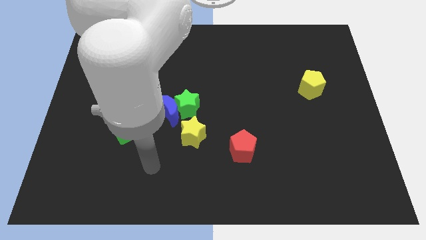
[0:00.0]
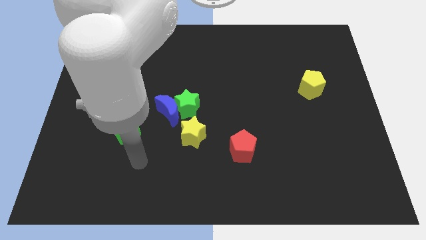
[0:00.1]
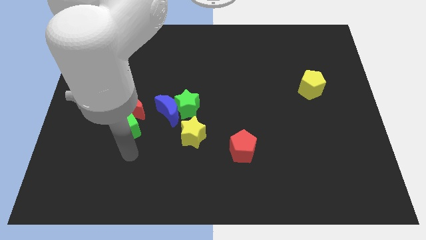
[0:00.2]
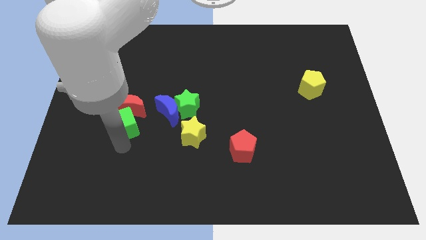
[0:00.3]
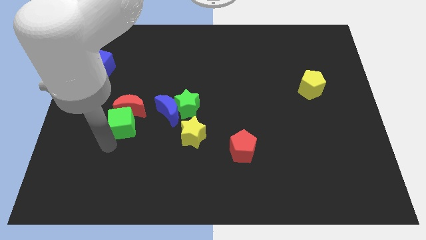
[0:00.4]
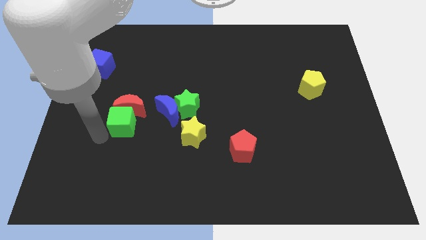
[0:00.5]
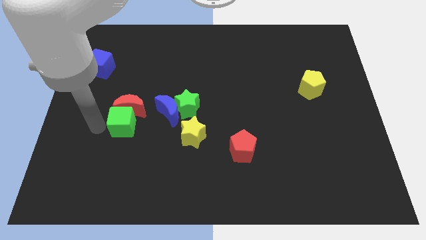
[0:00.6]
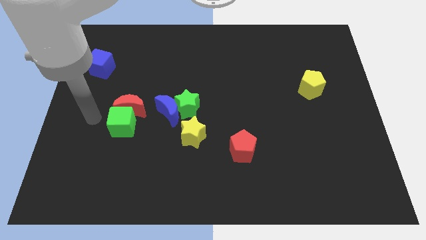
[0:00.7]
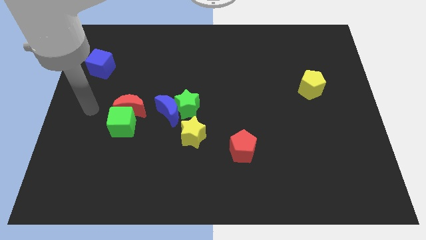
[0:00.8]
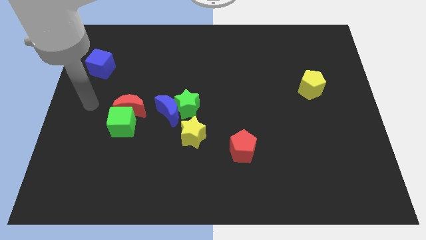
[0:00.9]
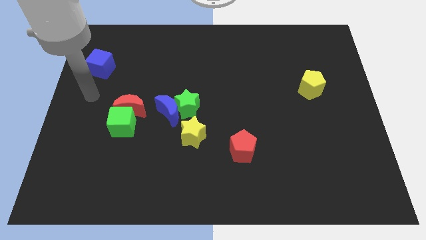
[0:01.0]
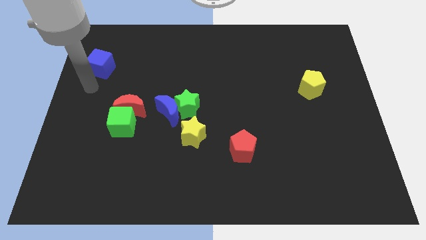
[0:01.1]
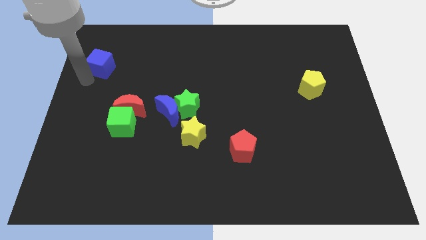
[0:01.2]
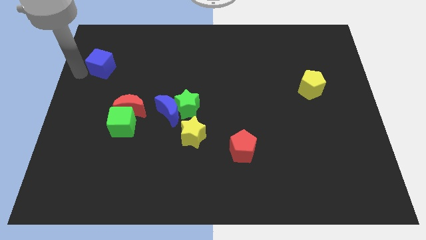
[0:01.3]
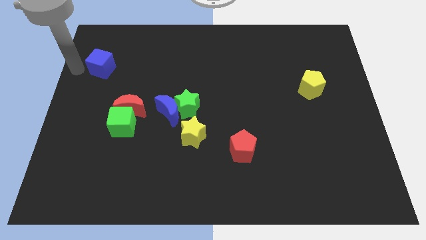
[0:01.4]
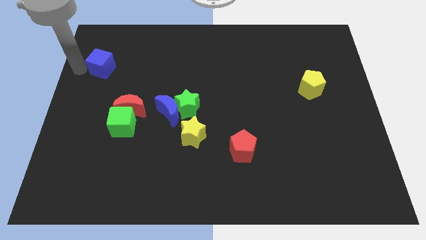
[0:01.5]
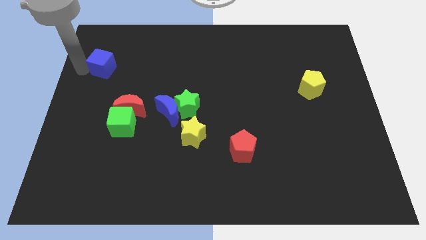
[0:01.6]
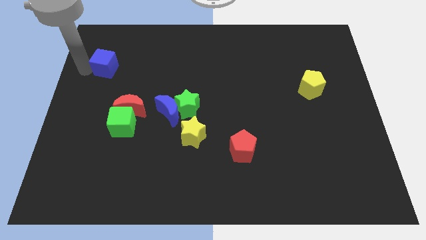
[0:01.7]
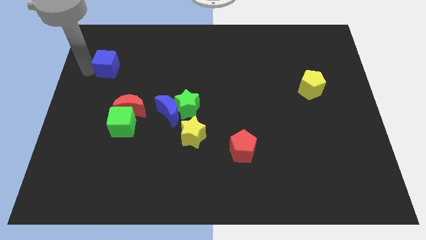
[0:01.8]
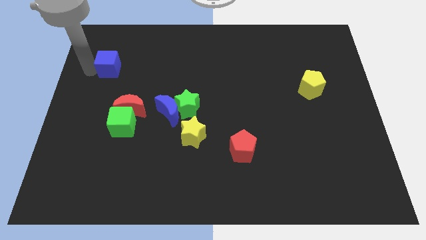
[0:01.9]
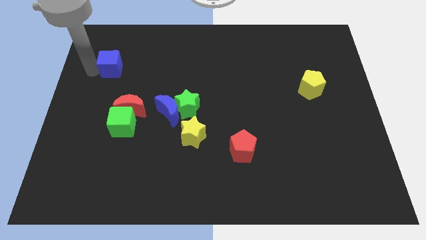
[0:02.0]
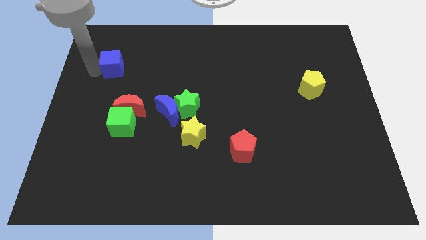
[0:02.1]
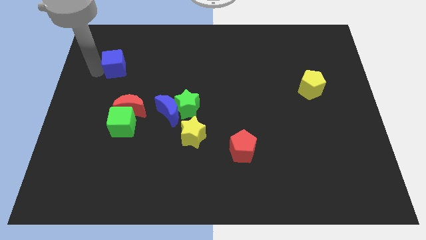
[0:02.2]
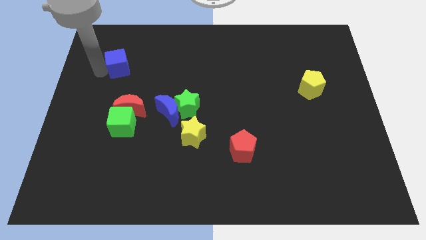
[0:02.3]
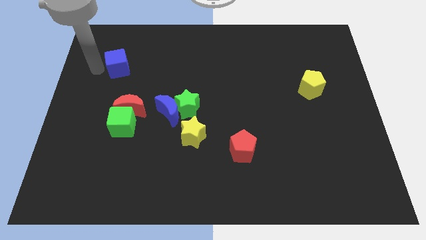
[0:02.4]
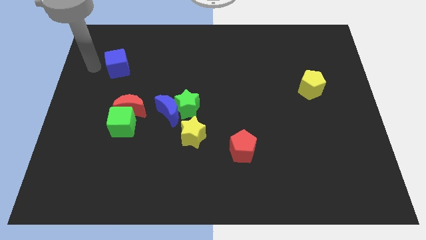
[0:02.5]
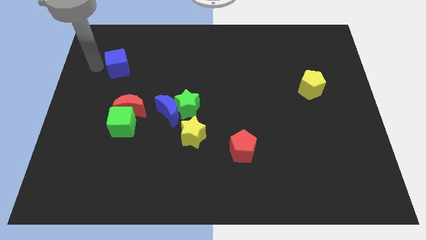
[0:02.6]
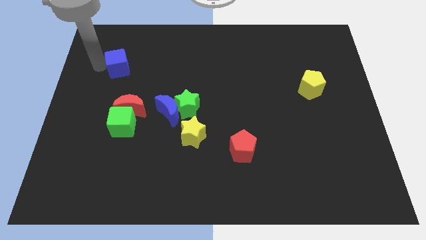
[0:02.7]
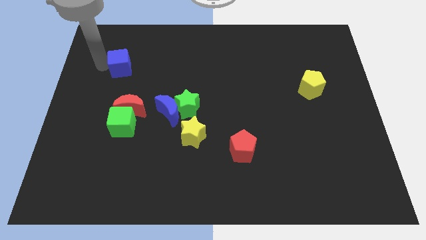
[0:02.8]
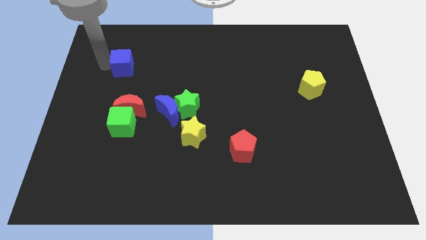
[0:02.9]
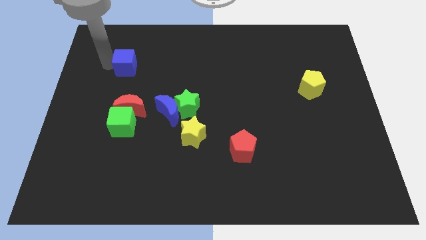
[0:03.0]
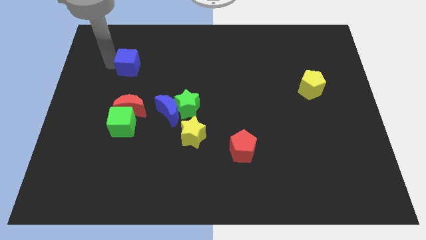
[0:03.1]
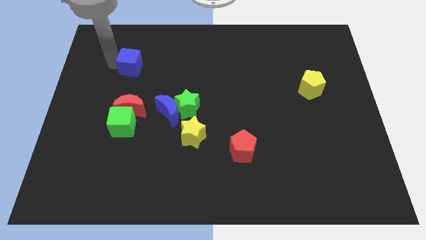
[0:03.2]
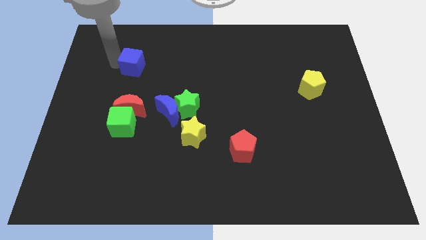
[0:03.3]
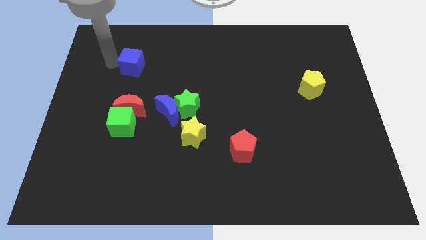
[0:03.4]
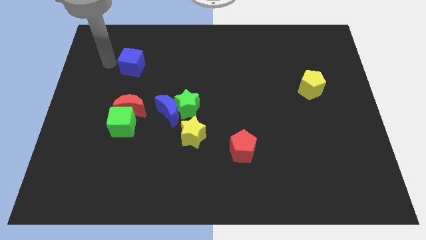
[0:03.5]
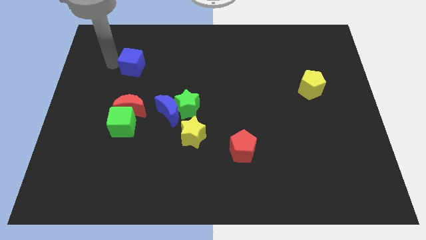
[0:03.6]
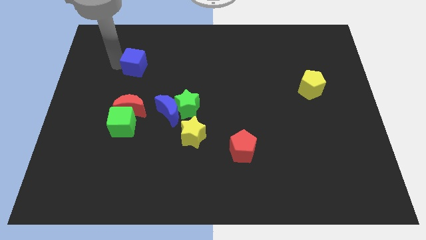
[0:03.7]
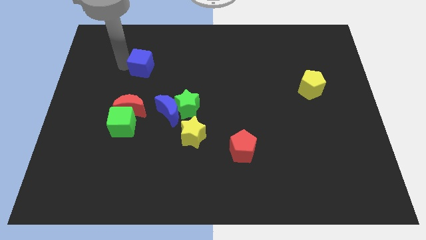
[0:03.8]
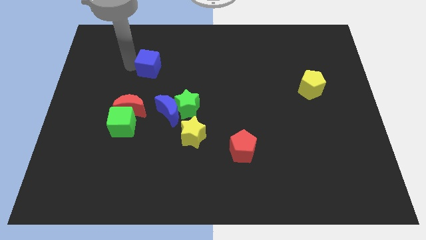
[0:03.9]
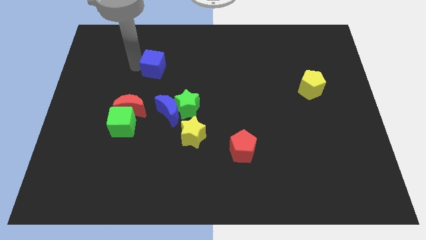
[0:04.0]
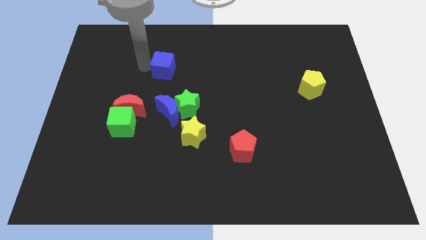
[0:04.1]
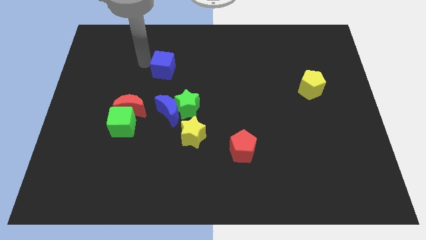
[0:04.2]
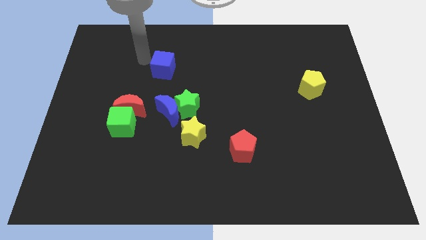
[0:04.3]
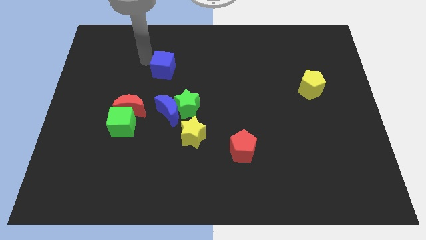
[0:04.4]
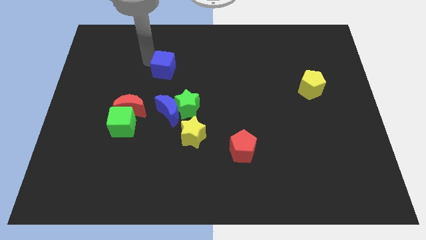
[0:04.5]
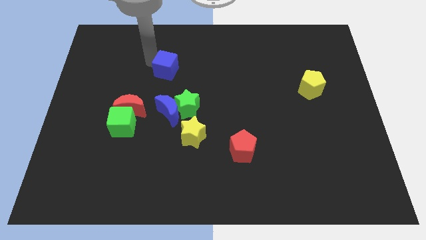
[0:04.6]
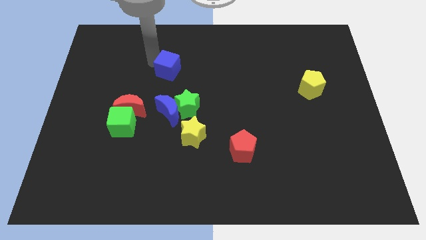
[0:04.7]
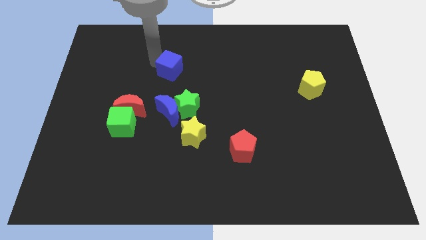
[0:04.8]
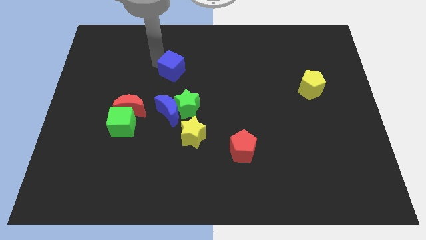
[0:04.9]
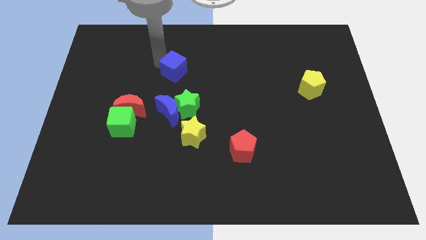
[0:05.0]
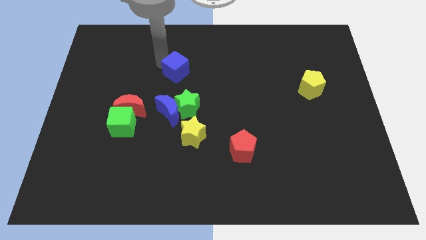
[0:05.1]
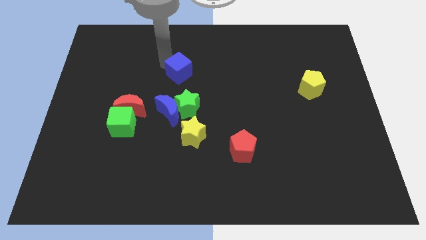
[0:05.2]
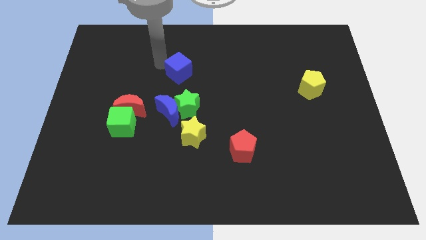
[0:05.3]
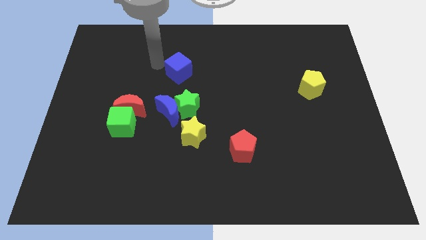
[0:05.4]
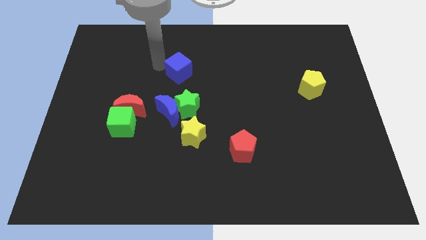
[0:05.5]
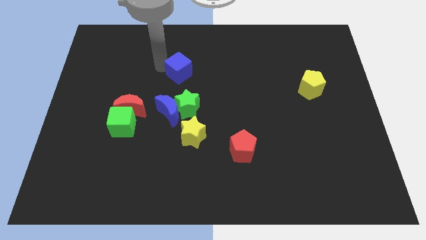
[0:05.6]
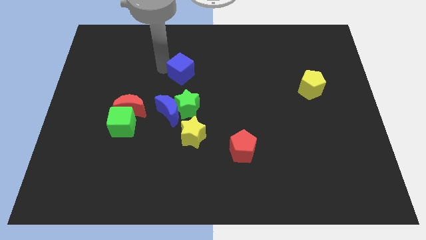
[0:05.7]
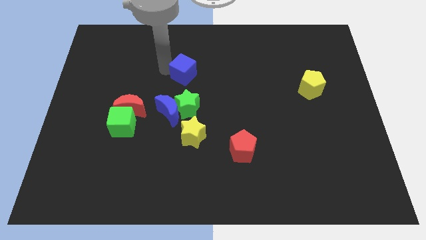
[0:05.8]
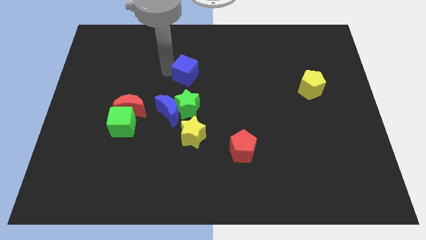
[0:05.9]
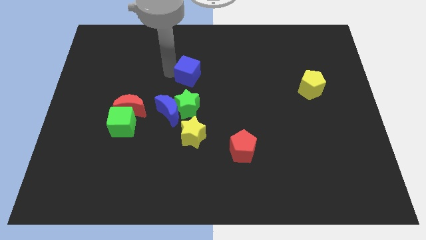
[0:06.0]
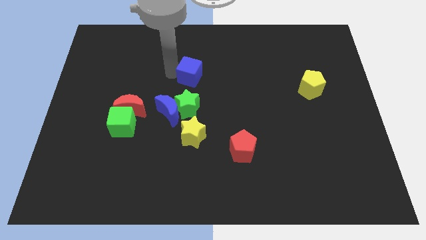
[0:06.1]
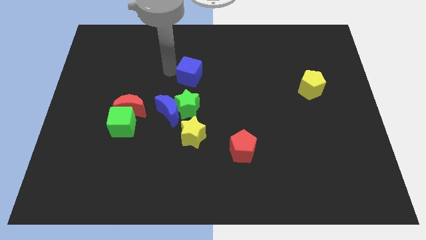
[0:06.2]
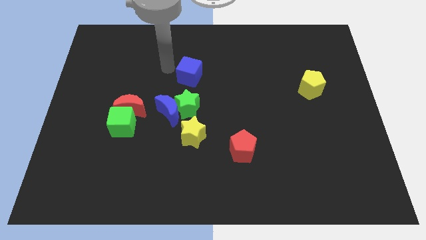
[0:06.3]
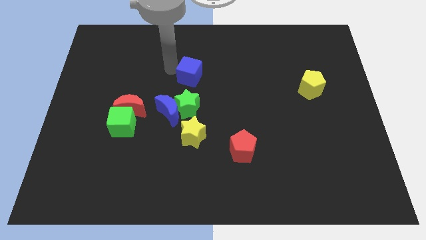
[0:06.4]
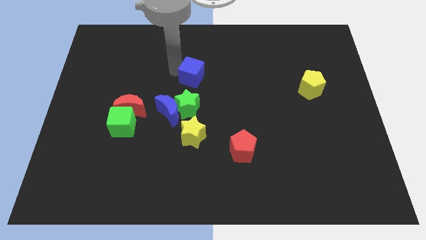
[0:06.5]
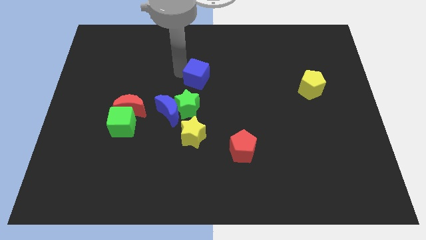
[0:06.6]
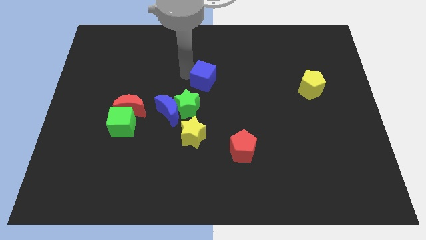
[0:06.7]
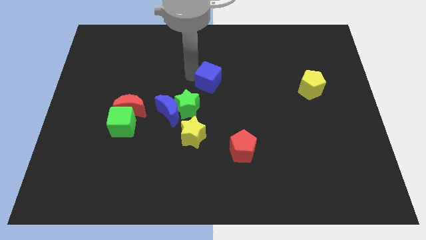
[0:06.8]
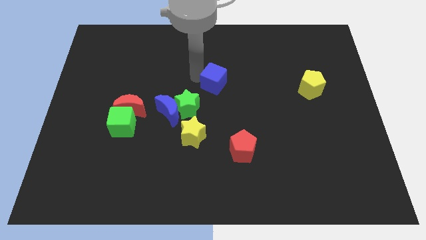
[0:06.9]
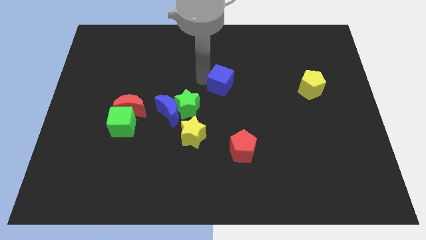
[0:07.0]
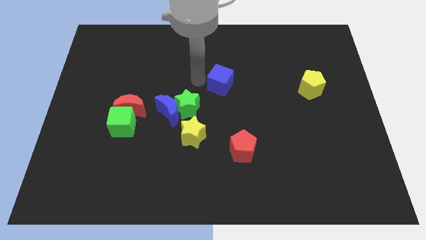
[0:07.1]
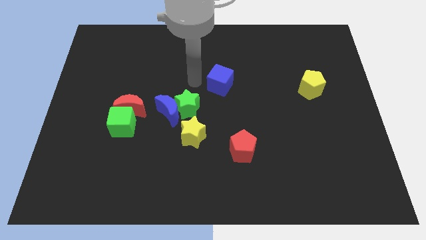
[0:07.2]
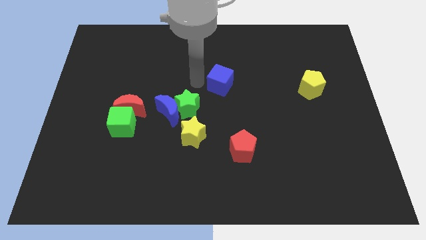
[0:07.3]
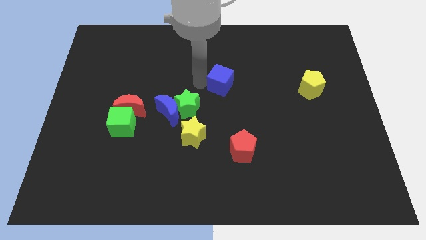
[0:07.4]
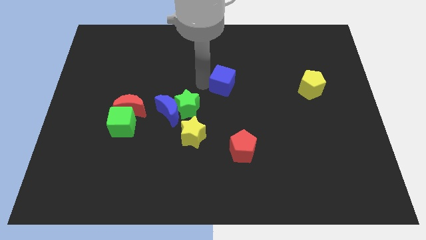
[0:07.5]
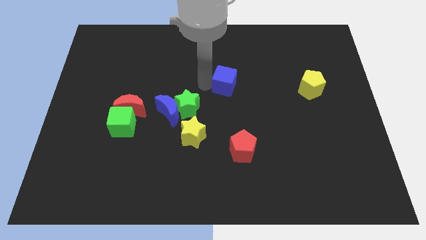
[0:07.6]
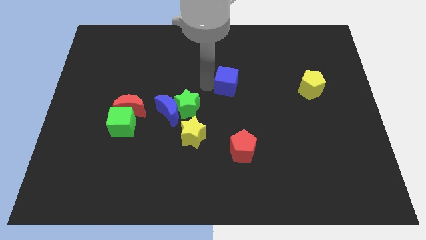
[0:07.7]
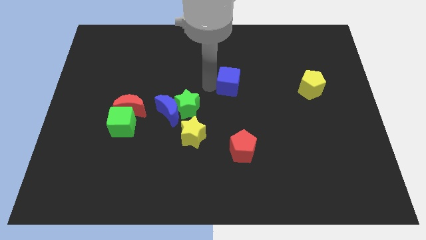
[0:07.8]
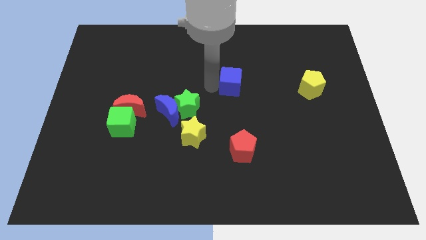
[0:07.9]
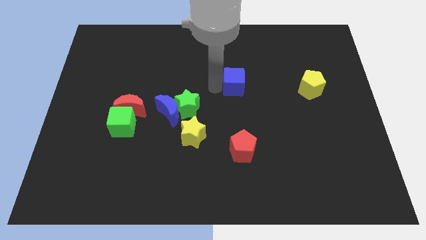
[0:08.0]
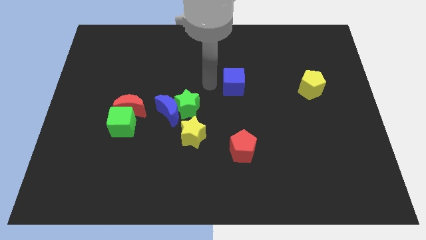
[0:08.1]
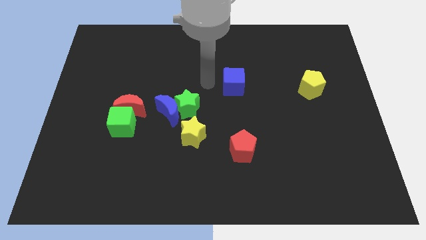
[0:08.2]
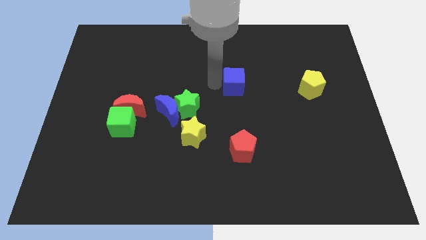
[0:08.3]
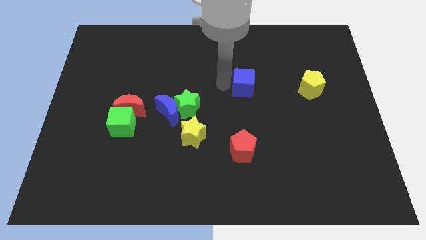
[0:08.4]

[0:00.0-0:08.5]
move the blue cube just left of the yellow pentagon
